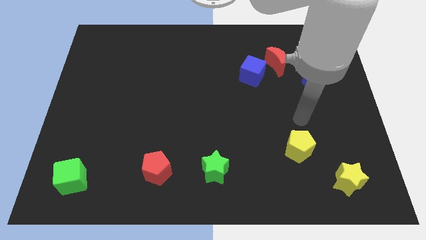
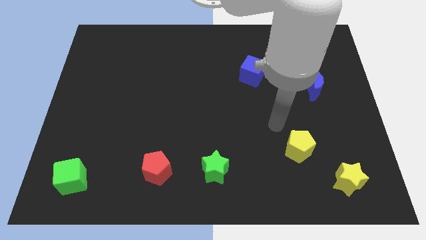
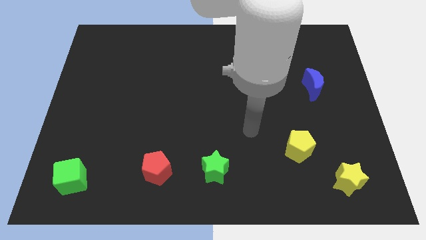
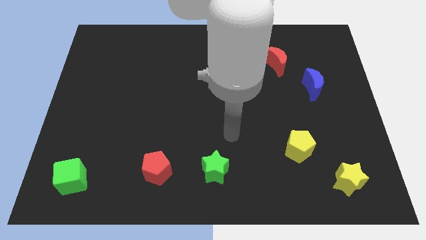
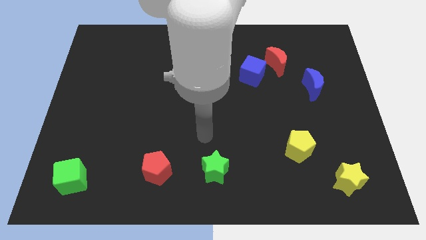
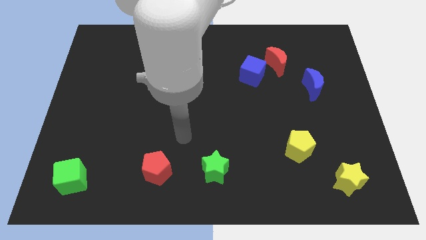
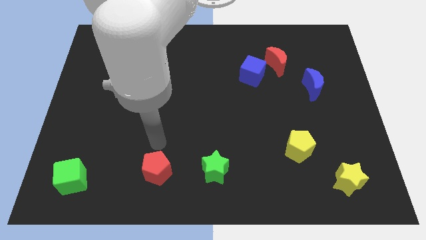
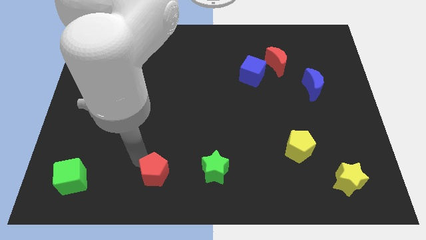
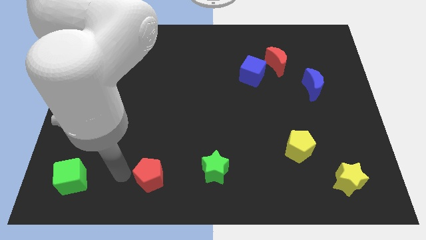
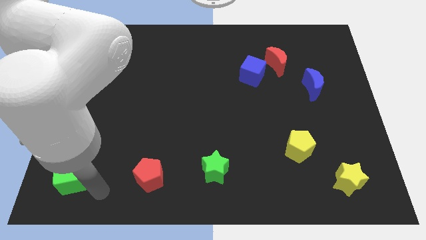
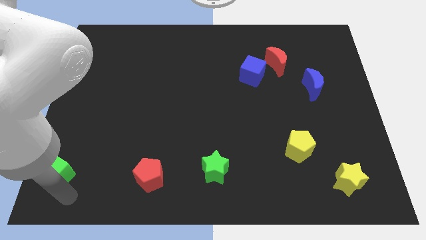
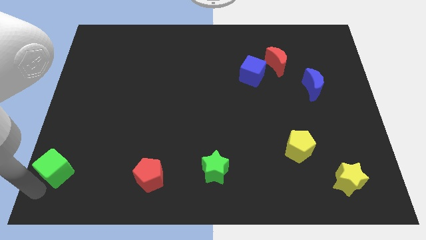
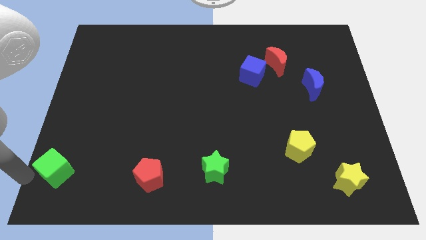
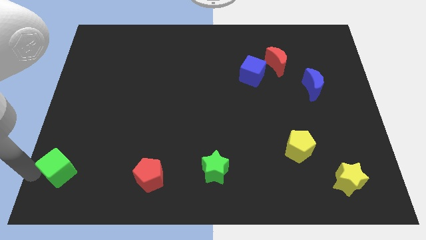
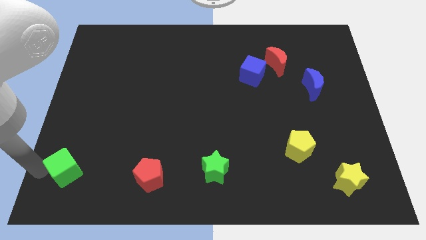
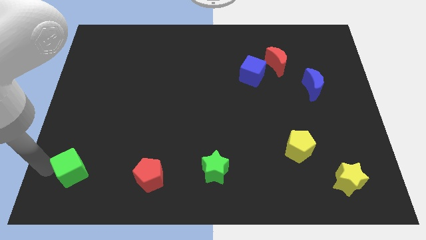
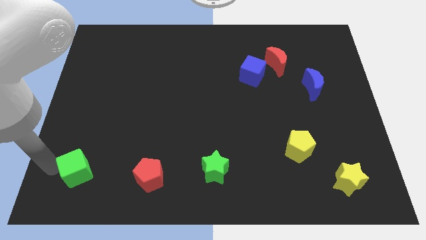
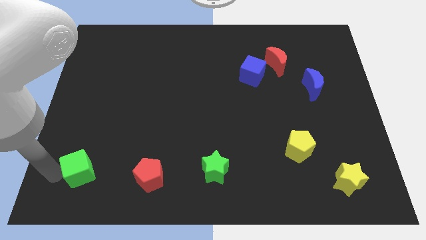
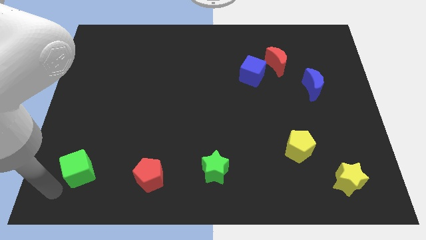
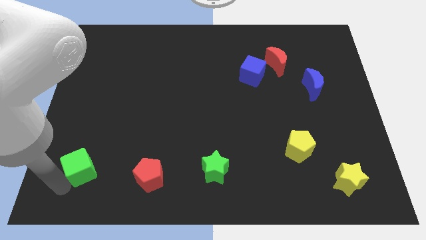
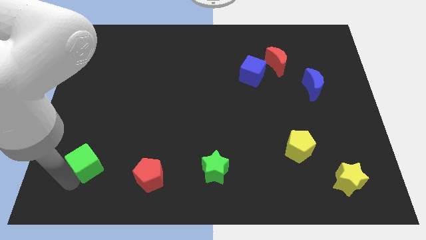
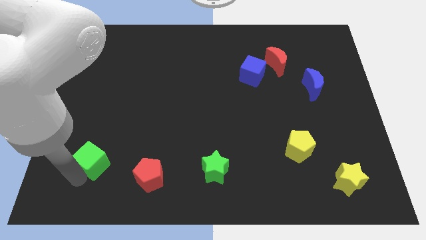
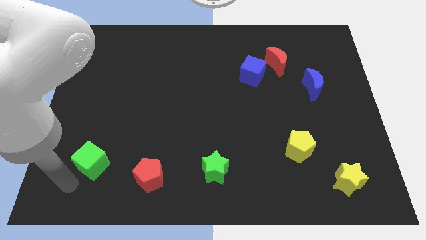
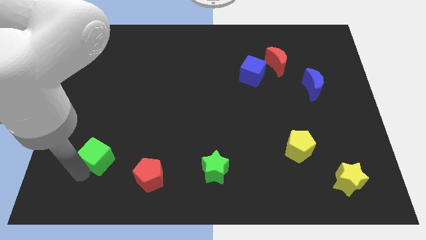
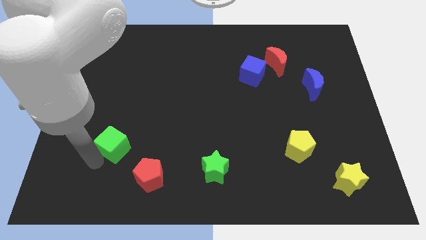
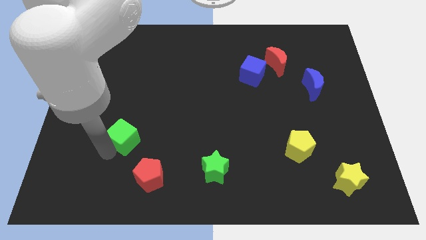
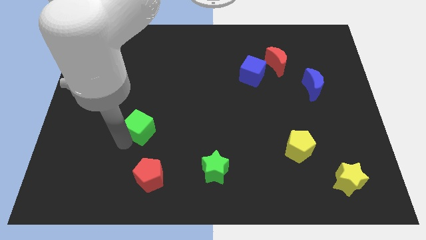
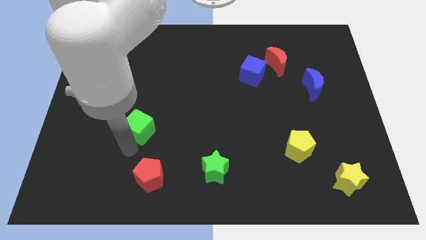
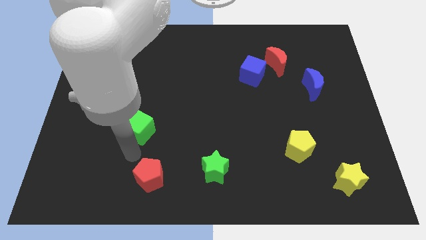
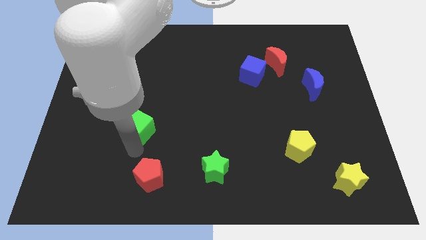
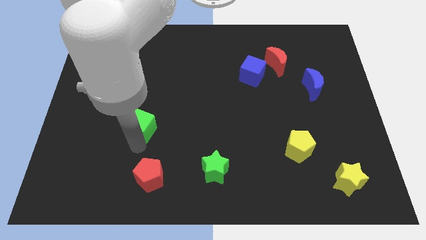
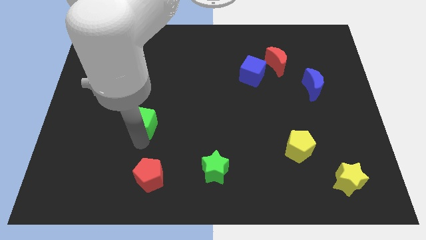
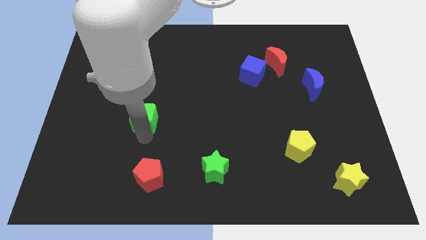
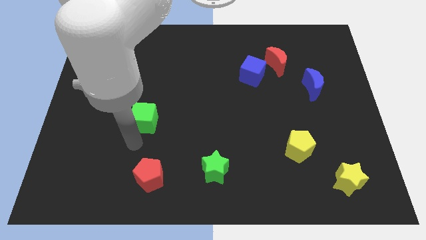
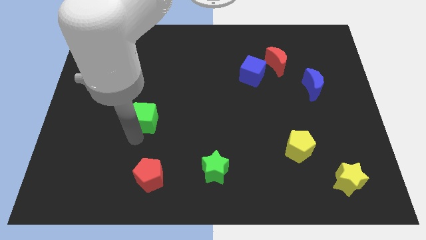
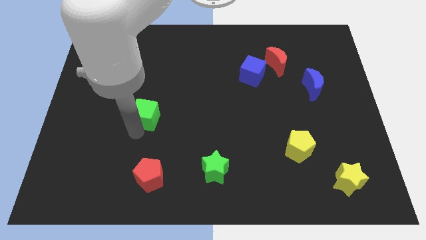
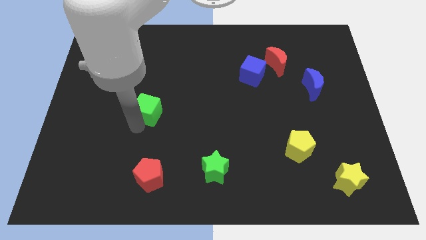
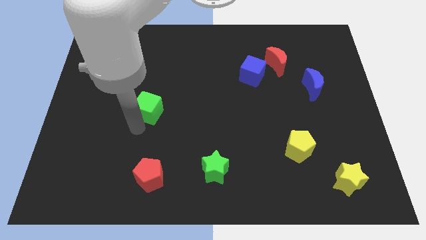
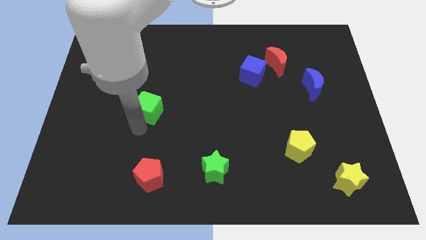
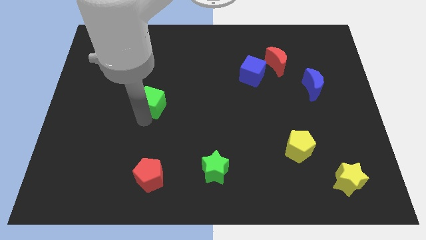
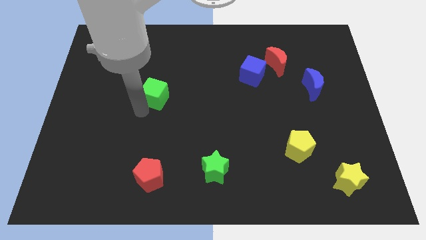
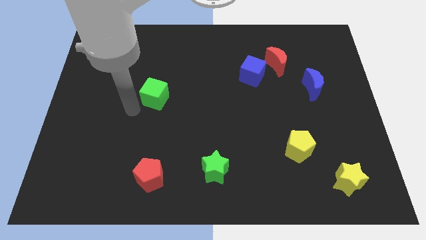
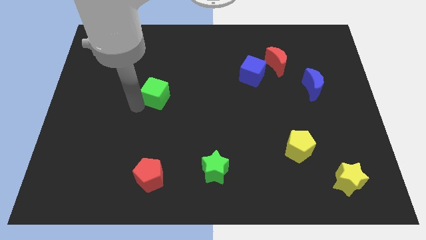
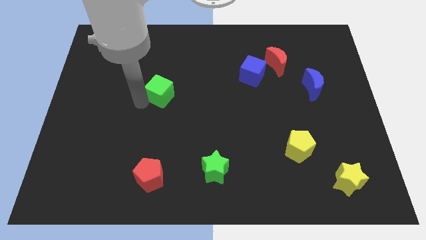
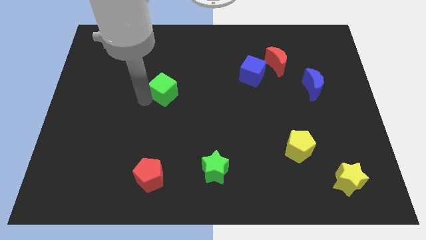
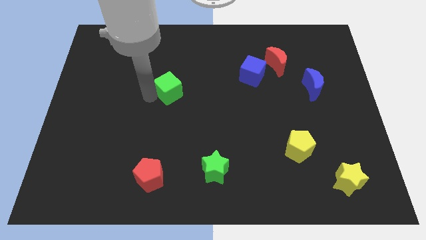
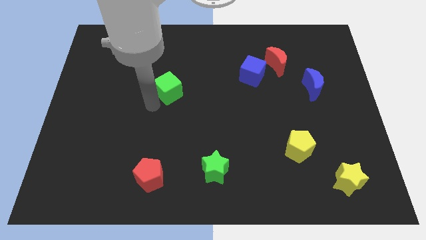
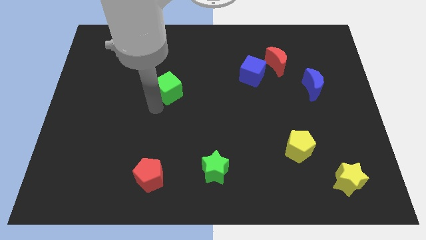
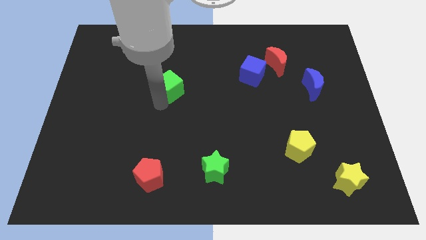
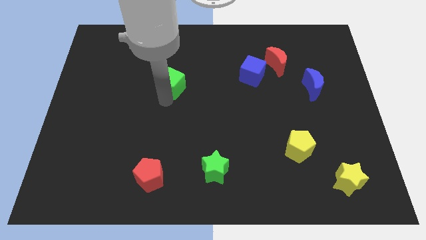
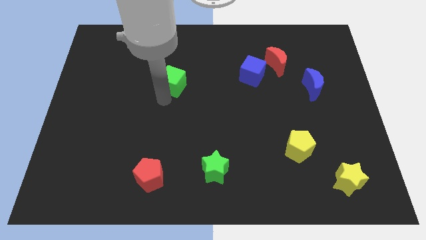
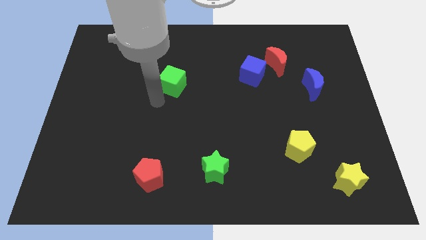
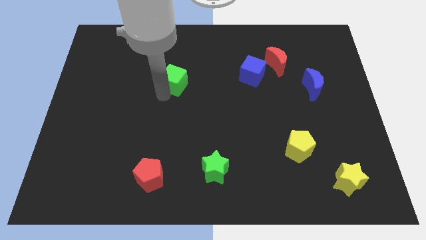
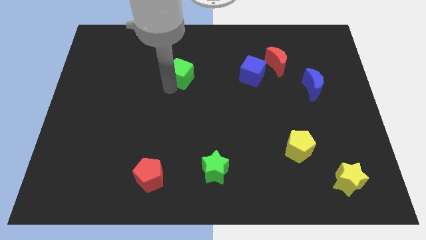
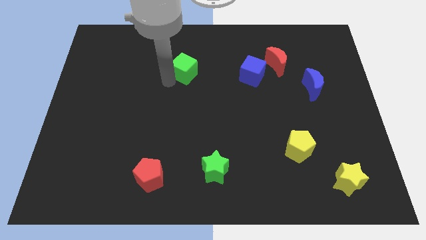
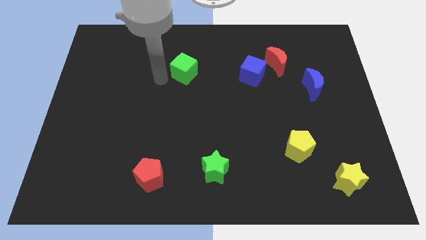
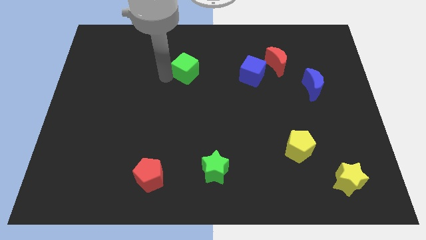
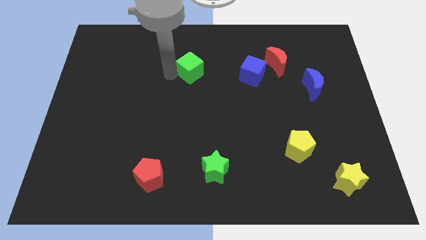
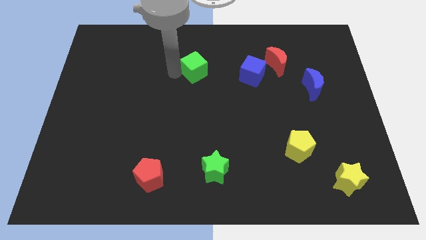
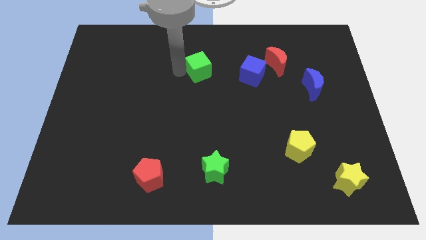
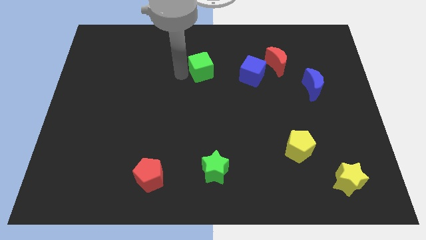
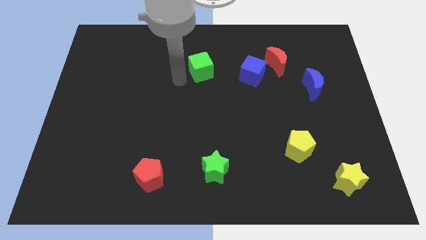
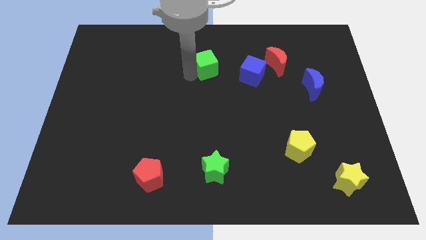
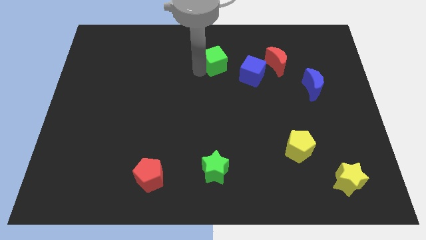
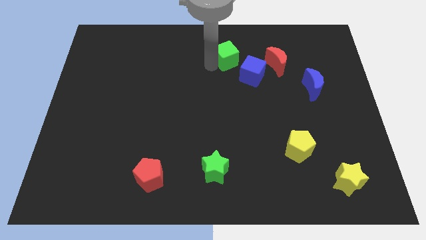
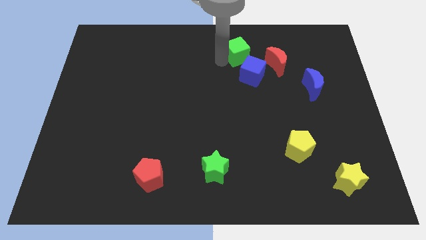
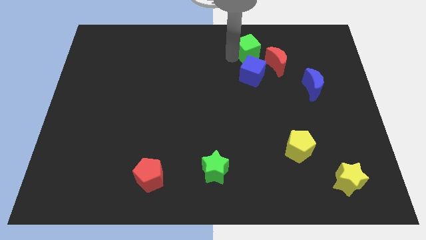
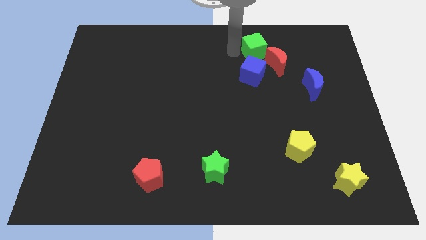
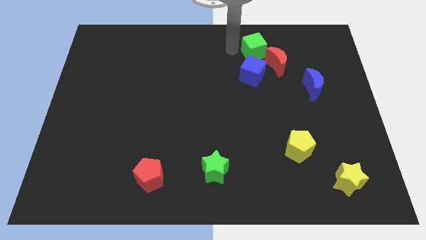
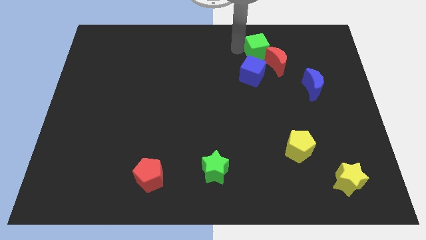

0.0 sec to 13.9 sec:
put the green cube to the top right of the blue cube

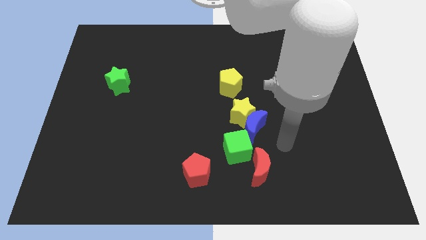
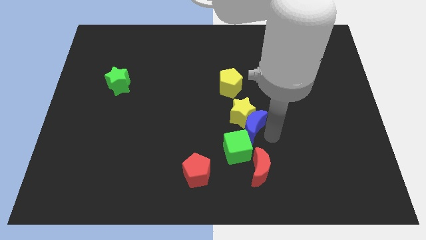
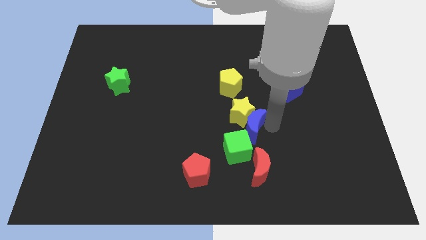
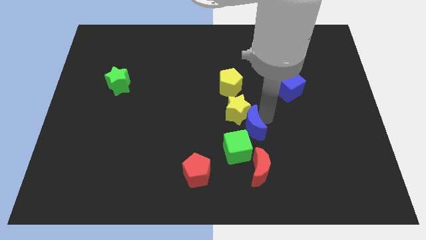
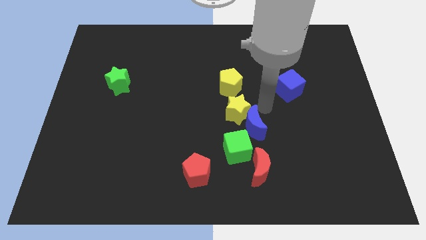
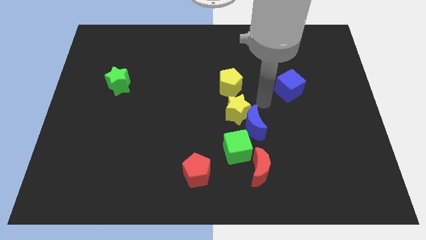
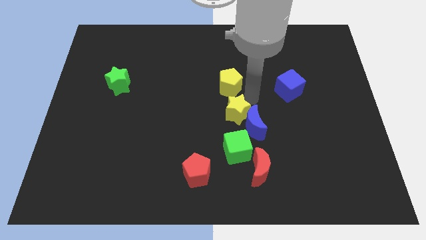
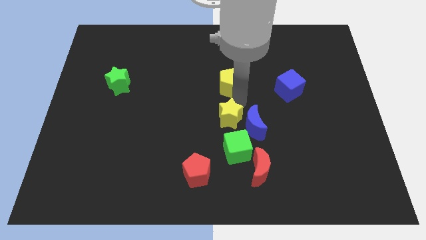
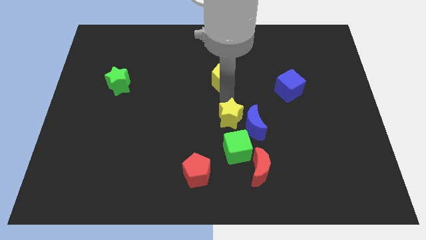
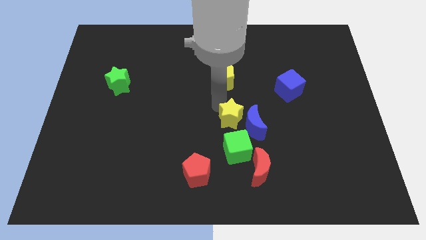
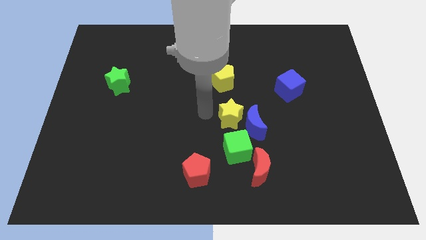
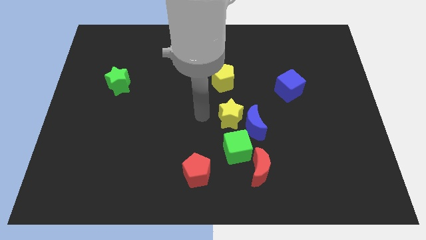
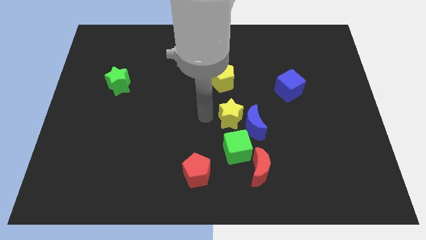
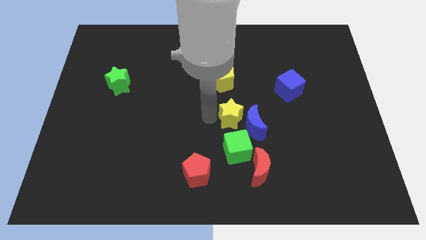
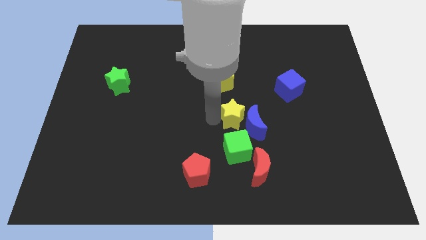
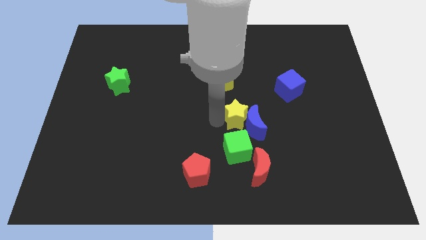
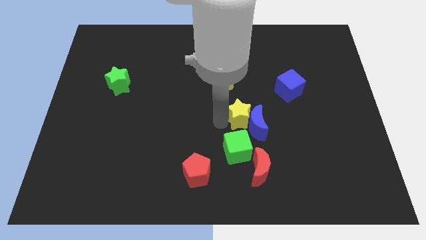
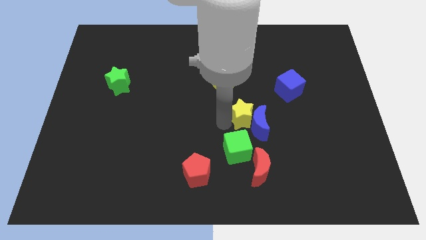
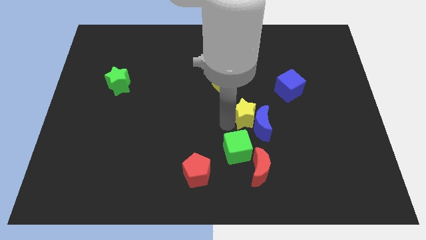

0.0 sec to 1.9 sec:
slide the yellow star to the top right of the green cube
